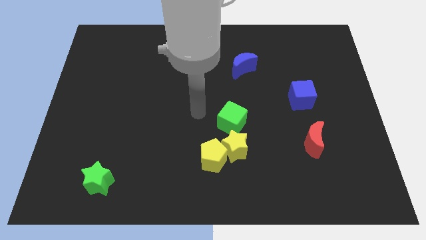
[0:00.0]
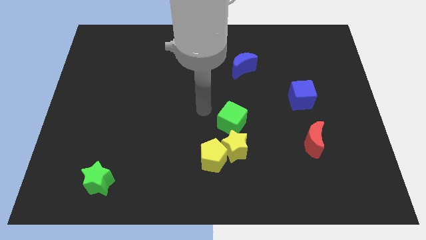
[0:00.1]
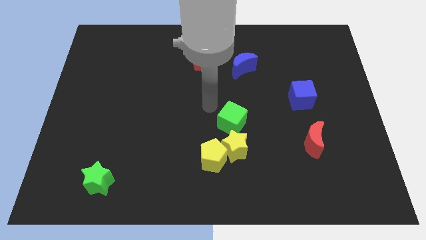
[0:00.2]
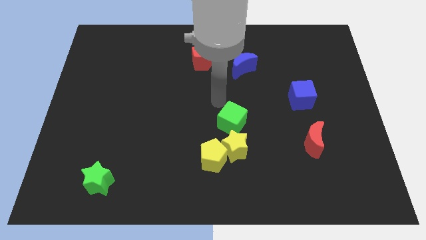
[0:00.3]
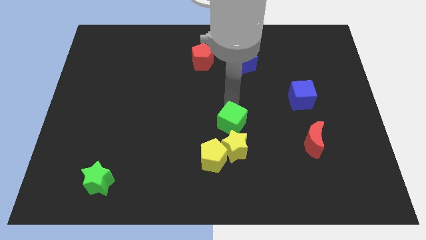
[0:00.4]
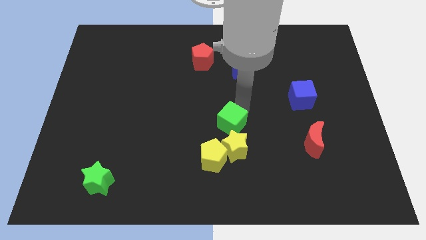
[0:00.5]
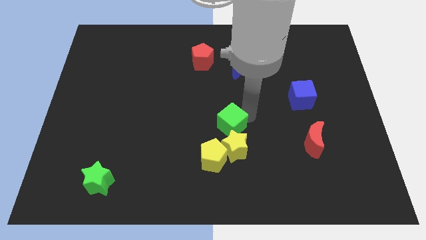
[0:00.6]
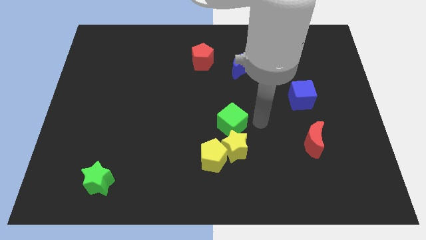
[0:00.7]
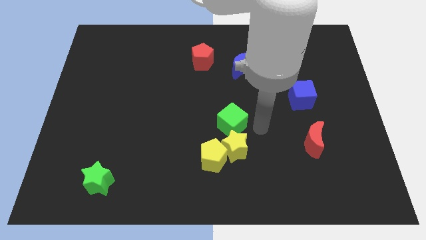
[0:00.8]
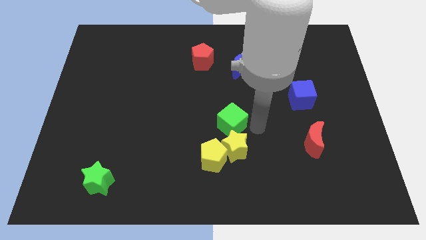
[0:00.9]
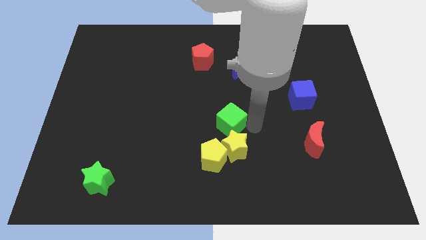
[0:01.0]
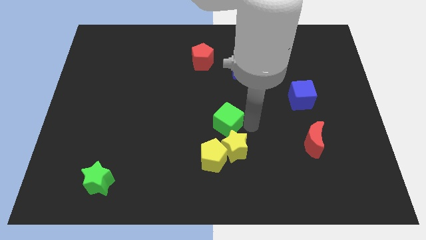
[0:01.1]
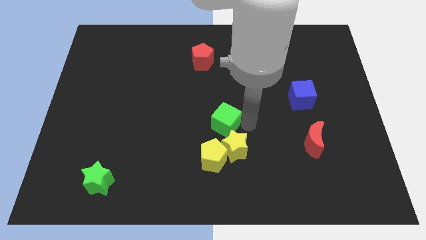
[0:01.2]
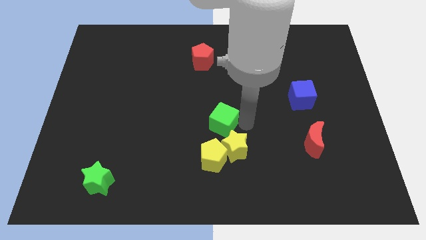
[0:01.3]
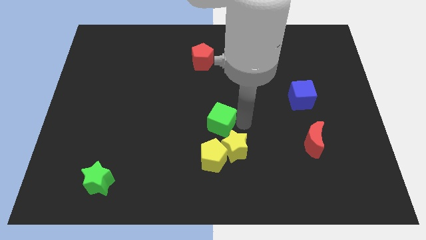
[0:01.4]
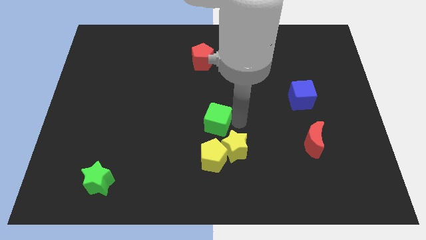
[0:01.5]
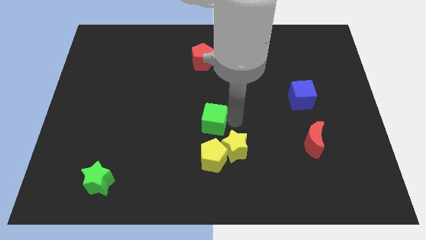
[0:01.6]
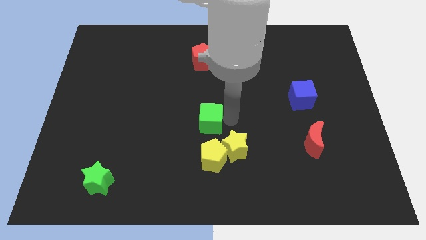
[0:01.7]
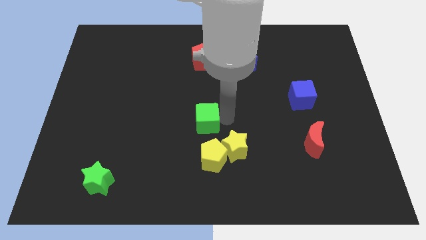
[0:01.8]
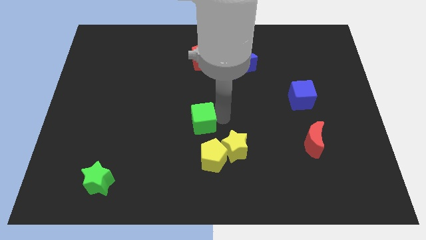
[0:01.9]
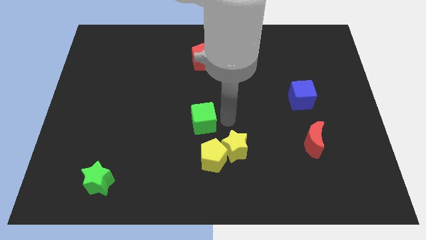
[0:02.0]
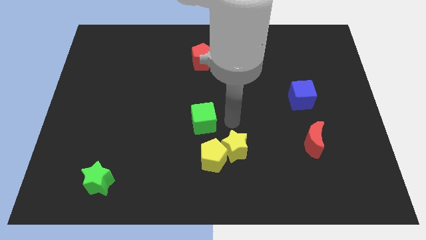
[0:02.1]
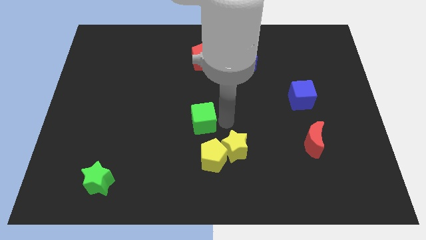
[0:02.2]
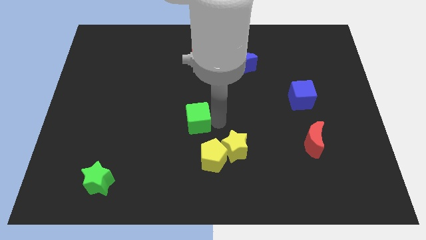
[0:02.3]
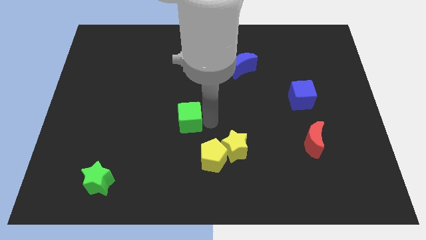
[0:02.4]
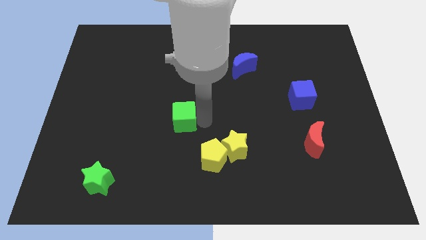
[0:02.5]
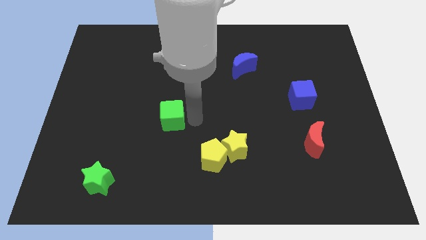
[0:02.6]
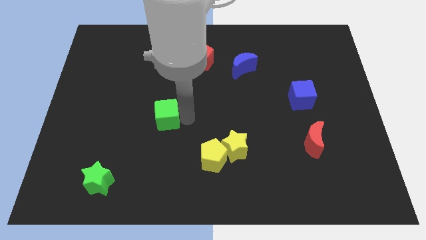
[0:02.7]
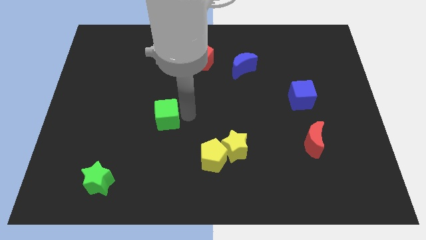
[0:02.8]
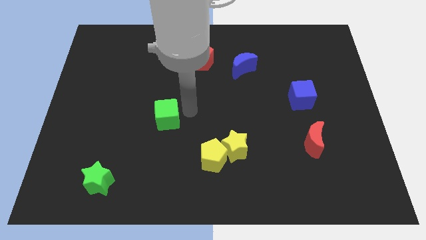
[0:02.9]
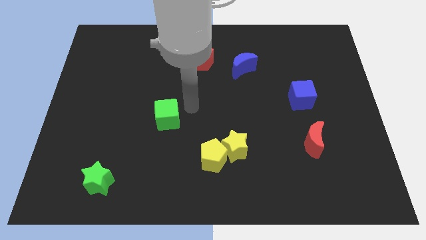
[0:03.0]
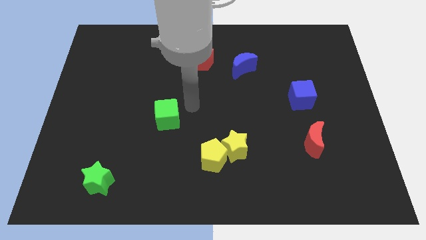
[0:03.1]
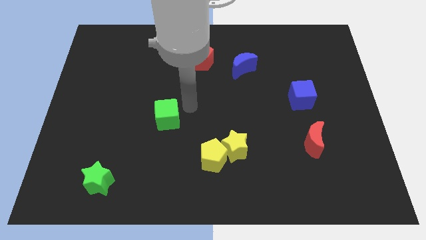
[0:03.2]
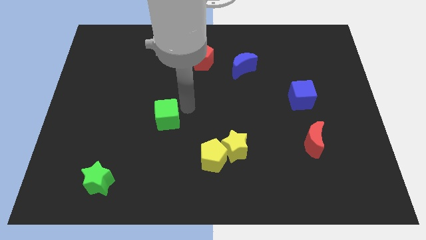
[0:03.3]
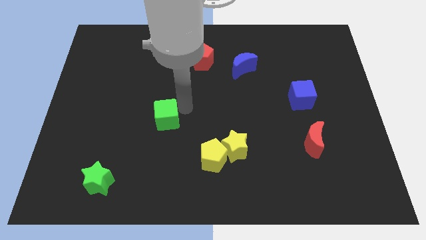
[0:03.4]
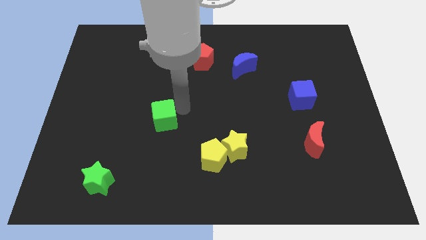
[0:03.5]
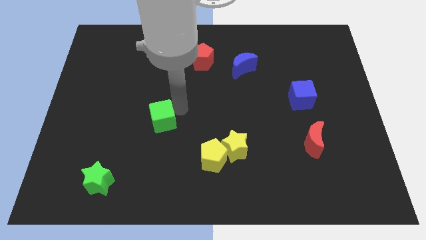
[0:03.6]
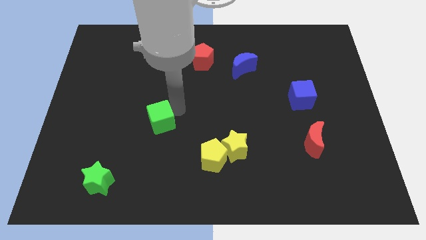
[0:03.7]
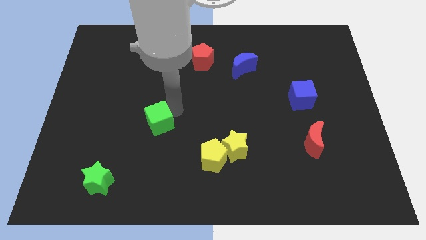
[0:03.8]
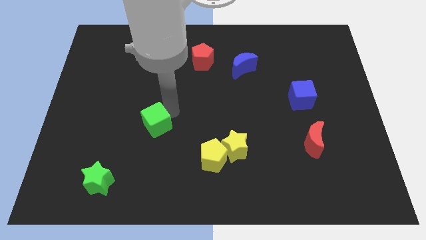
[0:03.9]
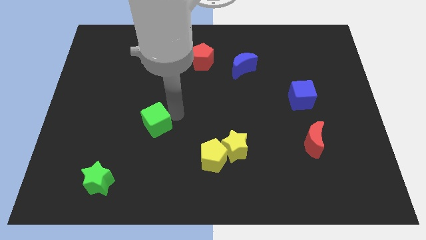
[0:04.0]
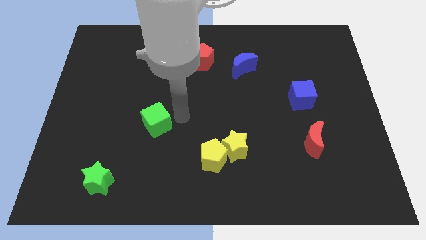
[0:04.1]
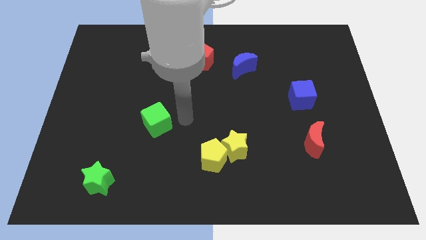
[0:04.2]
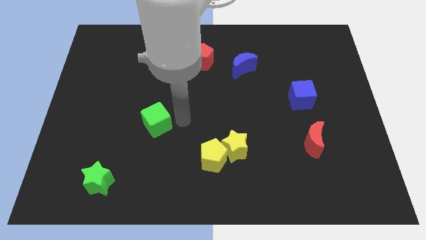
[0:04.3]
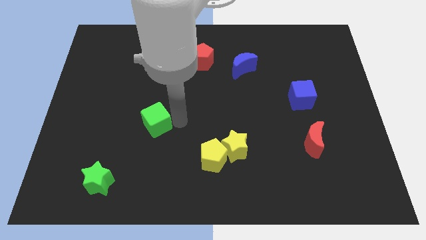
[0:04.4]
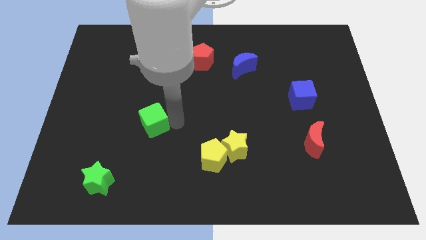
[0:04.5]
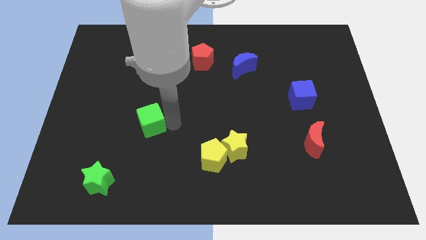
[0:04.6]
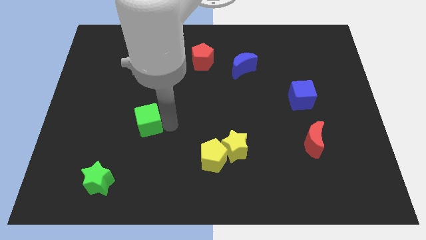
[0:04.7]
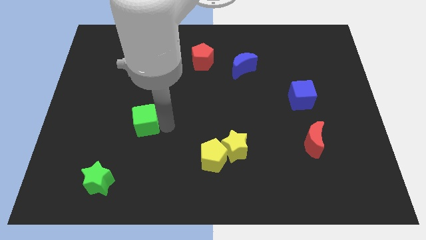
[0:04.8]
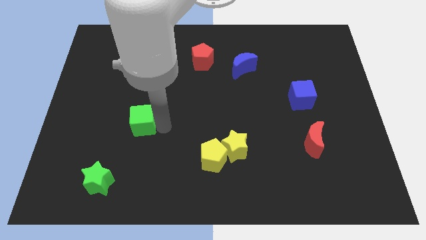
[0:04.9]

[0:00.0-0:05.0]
slide the green cube left

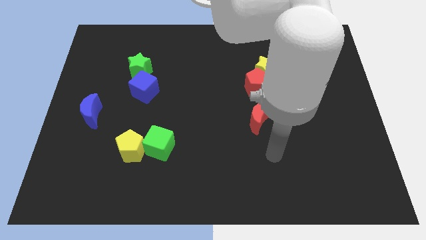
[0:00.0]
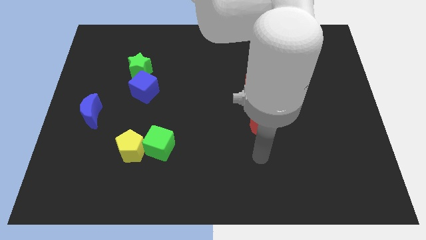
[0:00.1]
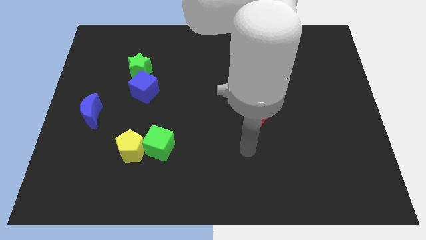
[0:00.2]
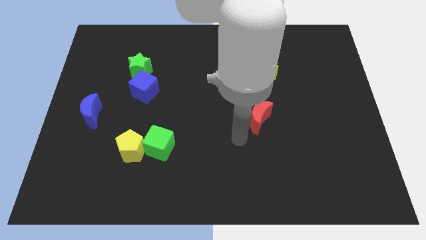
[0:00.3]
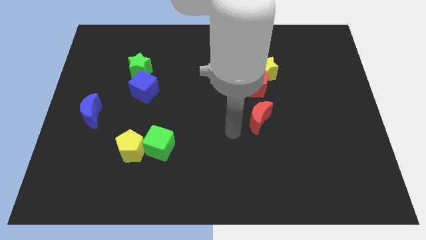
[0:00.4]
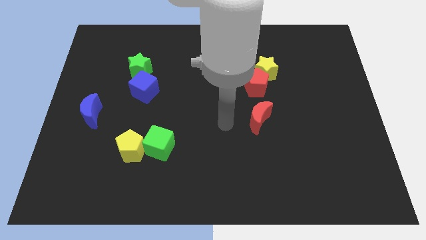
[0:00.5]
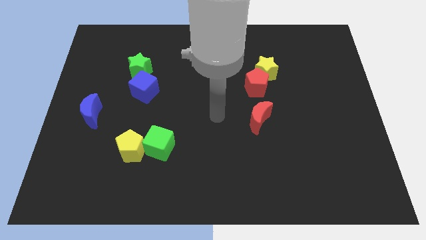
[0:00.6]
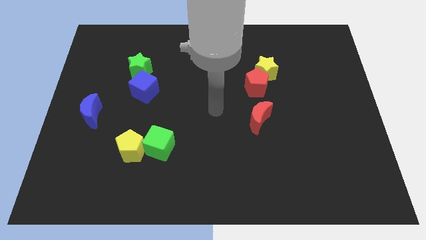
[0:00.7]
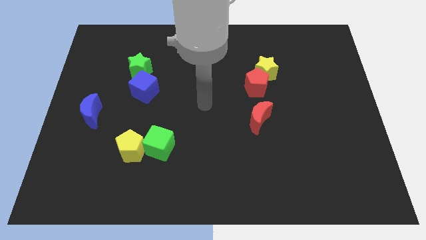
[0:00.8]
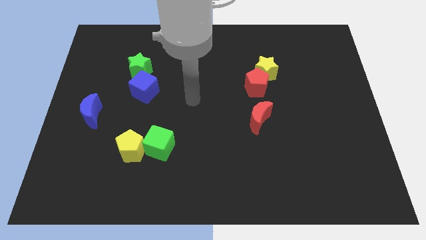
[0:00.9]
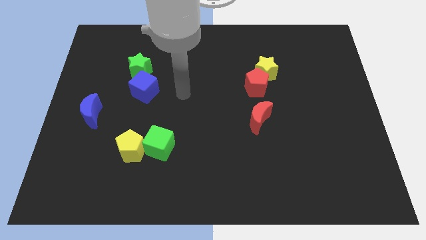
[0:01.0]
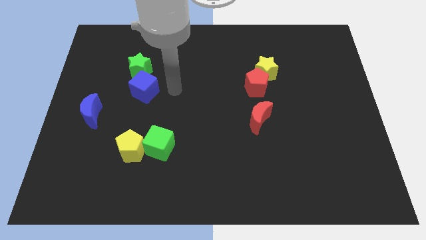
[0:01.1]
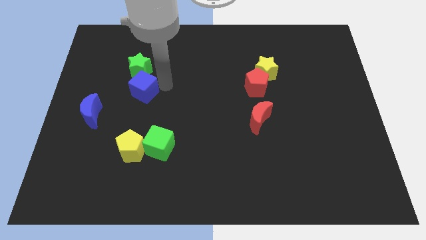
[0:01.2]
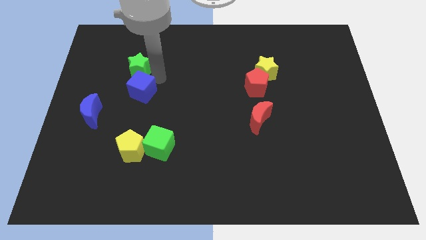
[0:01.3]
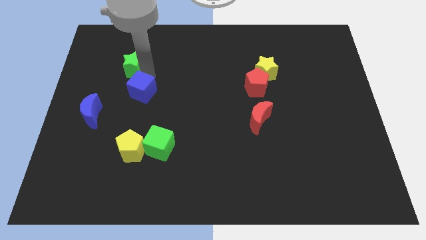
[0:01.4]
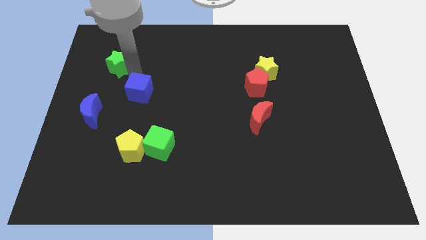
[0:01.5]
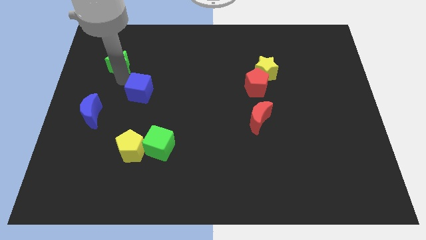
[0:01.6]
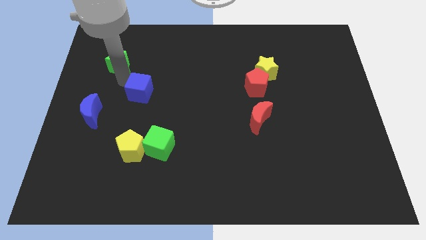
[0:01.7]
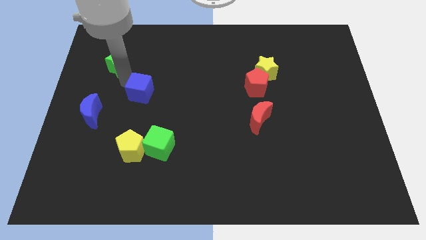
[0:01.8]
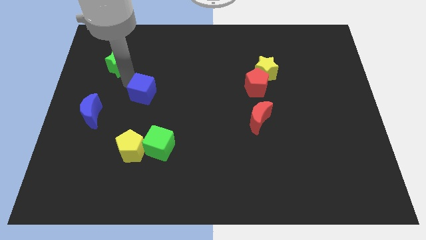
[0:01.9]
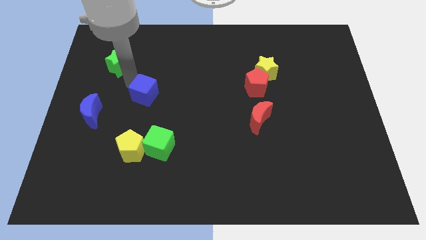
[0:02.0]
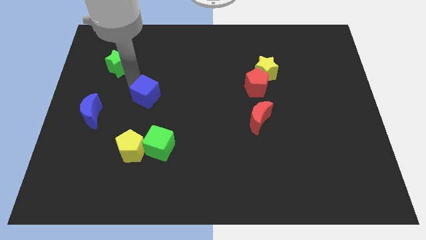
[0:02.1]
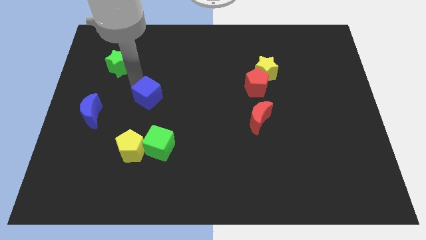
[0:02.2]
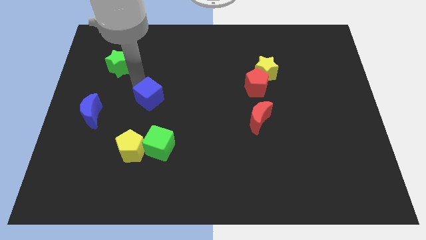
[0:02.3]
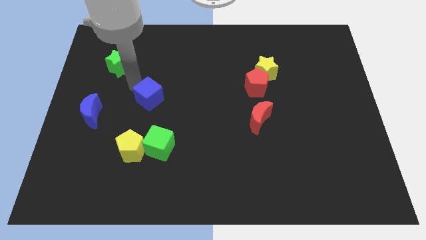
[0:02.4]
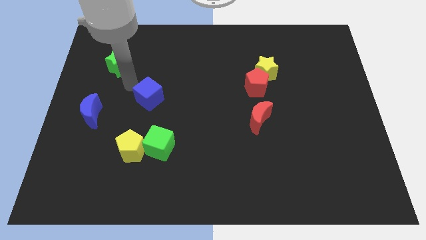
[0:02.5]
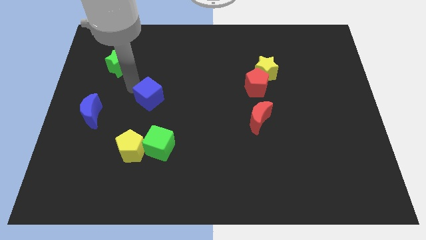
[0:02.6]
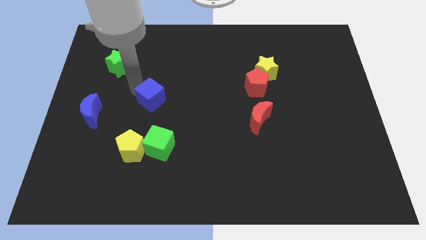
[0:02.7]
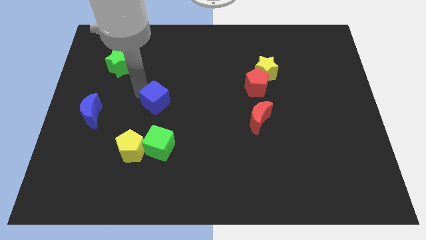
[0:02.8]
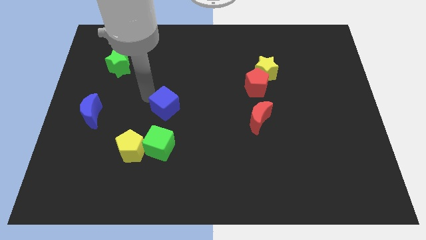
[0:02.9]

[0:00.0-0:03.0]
slightly slide the blue cube down and right
